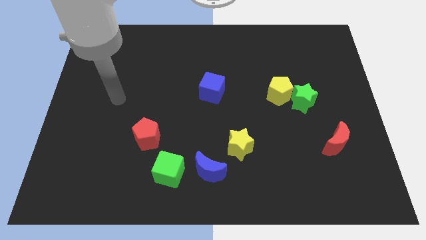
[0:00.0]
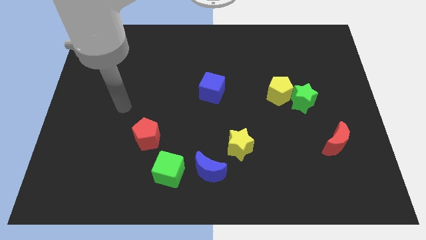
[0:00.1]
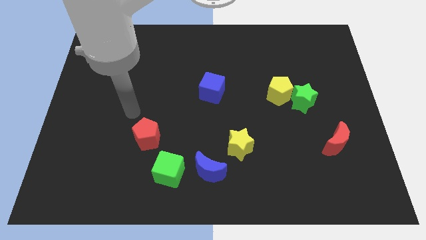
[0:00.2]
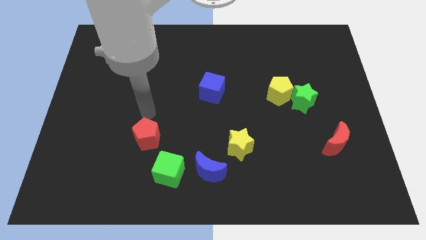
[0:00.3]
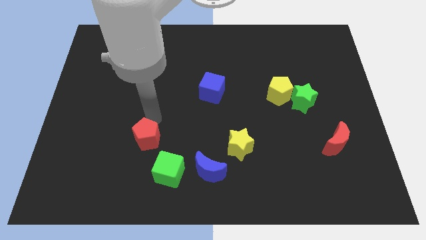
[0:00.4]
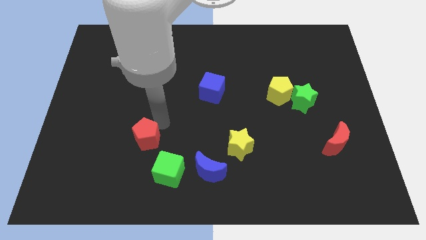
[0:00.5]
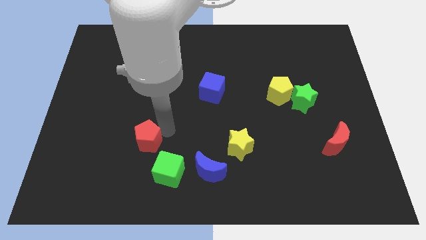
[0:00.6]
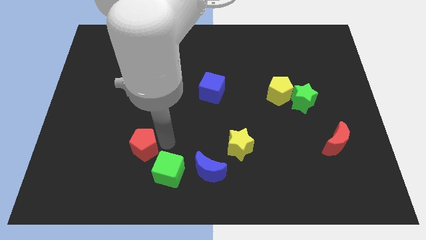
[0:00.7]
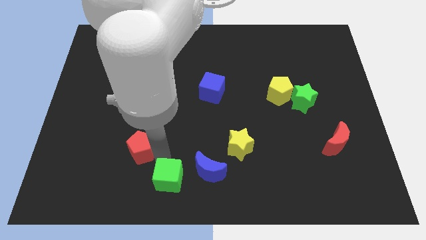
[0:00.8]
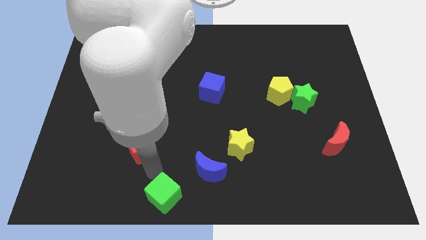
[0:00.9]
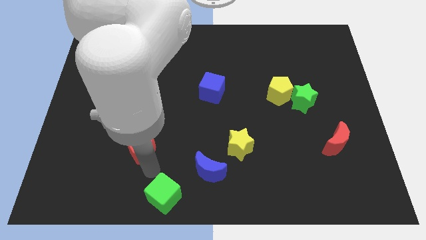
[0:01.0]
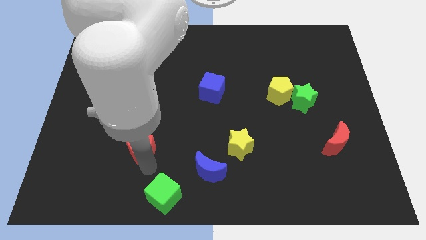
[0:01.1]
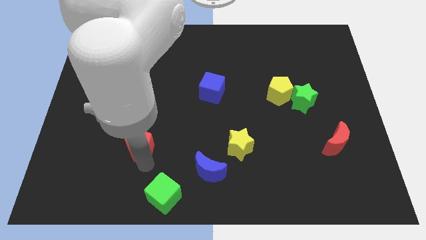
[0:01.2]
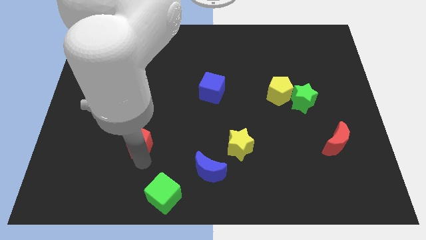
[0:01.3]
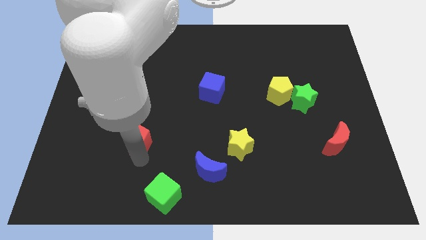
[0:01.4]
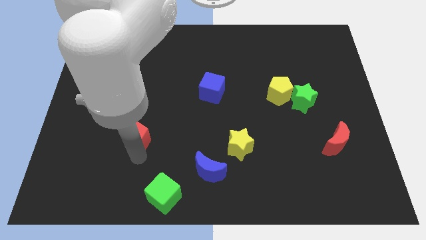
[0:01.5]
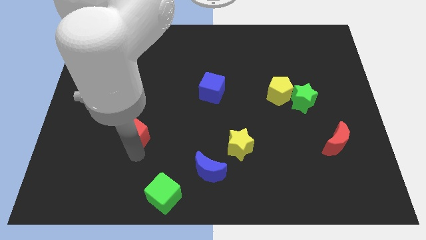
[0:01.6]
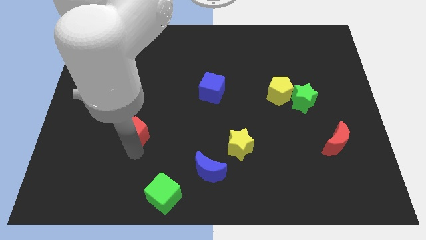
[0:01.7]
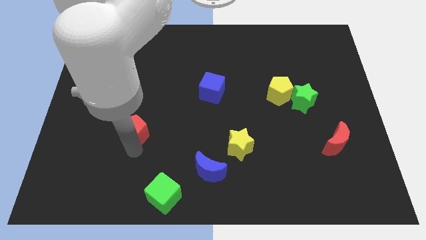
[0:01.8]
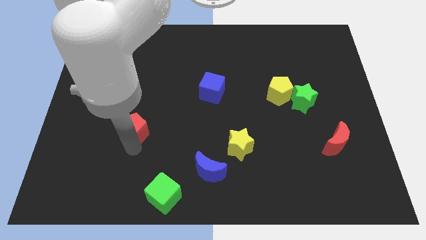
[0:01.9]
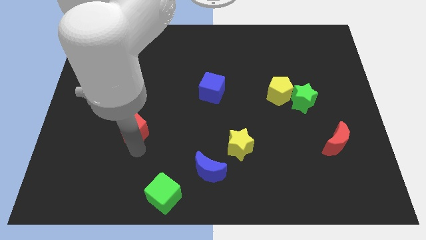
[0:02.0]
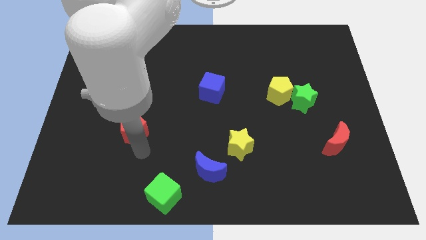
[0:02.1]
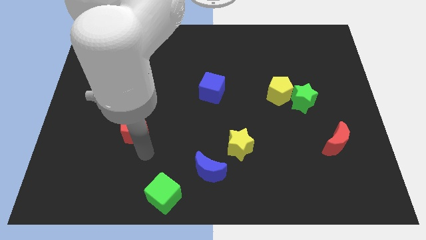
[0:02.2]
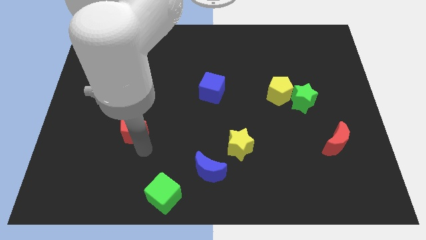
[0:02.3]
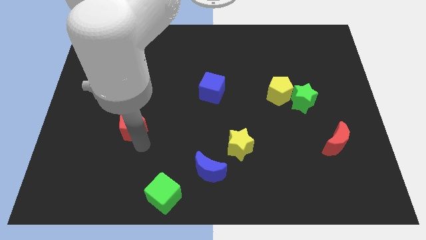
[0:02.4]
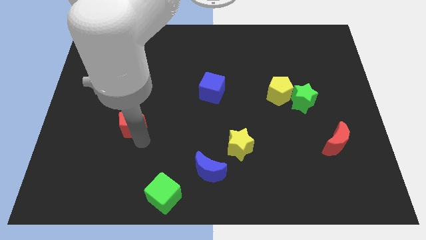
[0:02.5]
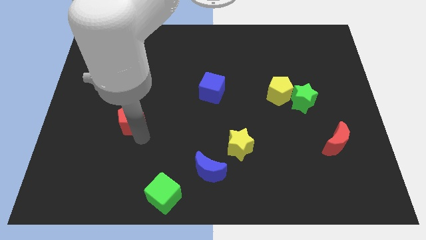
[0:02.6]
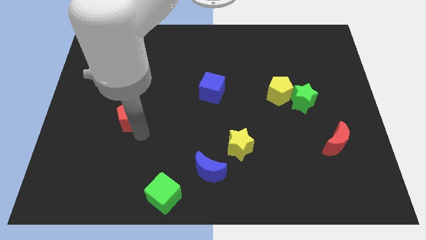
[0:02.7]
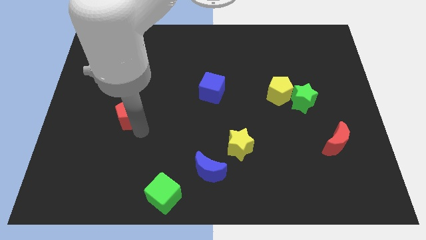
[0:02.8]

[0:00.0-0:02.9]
slide the red pentagon a little upwards and to the left

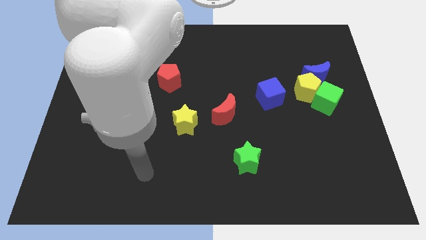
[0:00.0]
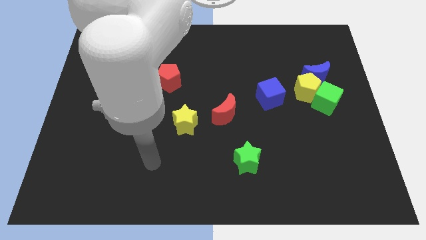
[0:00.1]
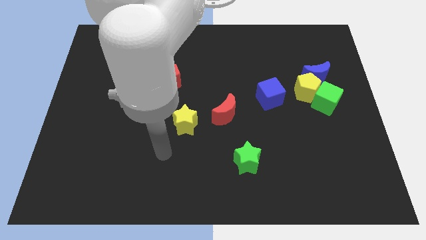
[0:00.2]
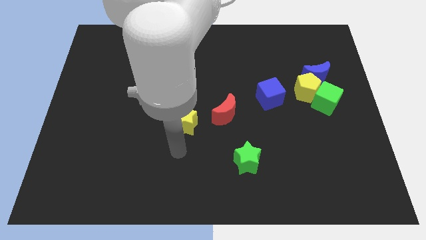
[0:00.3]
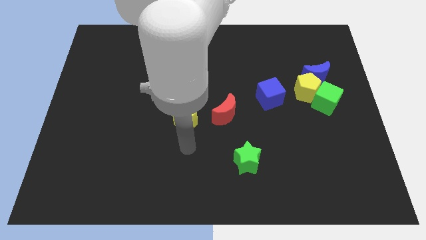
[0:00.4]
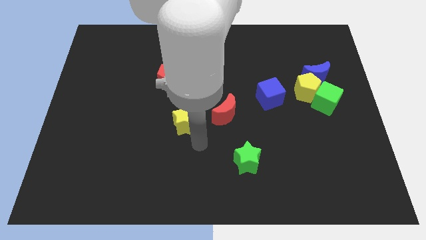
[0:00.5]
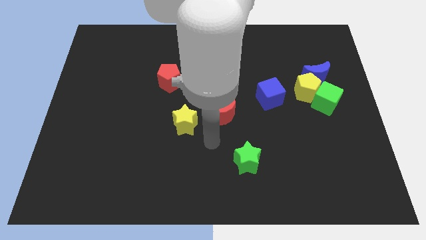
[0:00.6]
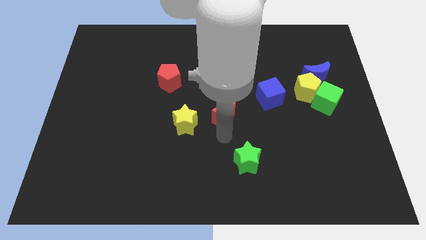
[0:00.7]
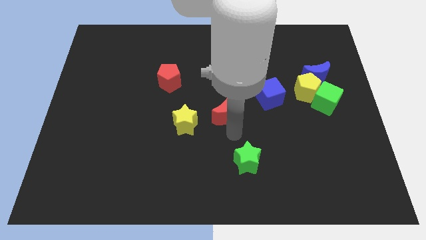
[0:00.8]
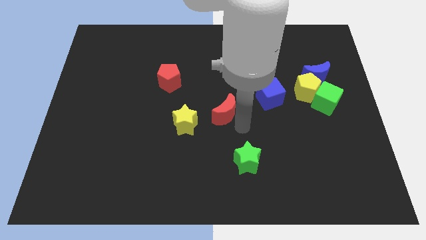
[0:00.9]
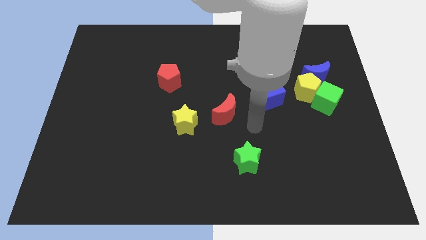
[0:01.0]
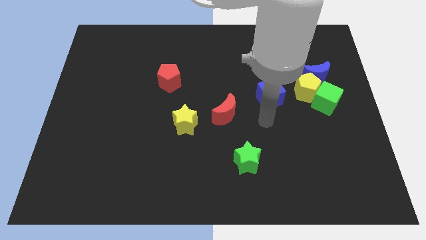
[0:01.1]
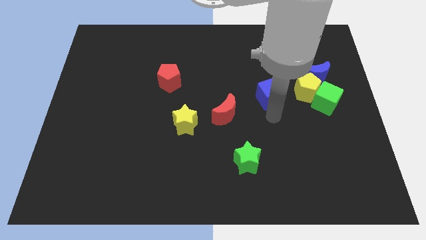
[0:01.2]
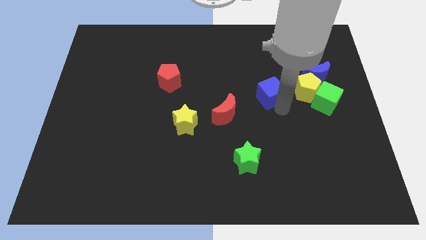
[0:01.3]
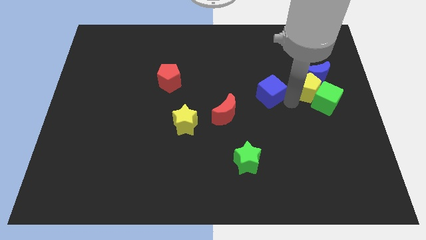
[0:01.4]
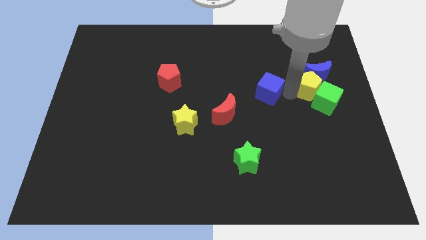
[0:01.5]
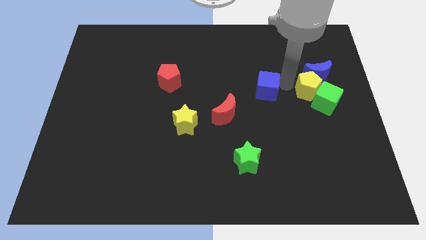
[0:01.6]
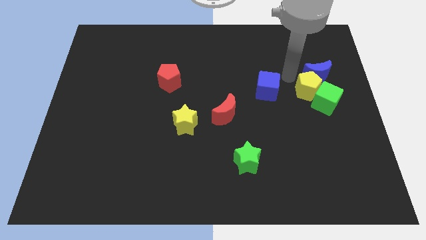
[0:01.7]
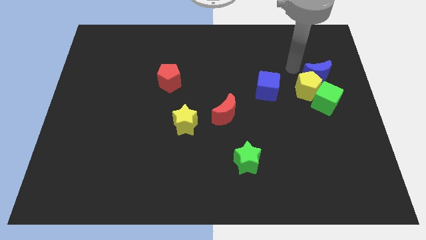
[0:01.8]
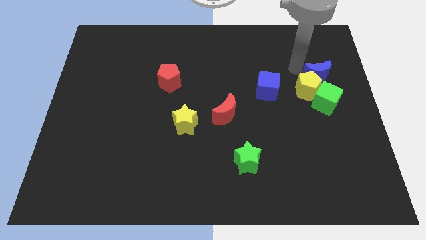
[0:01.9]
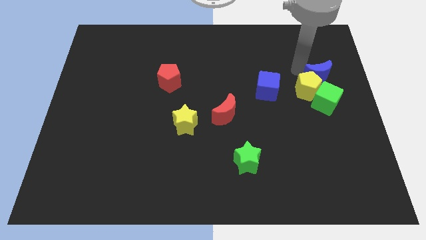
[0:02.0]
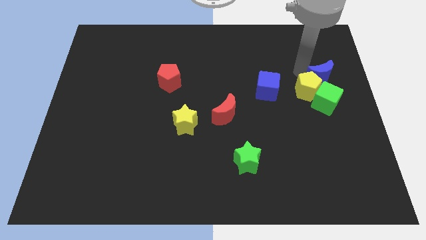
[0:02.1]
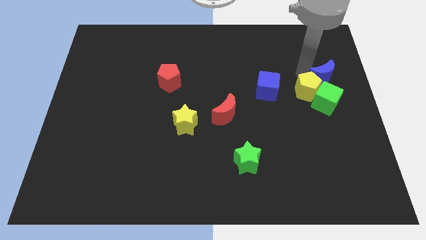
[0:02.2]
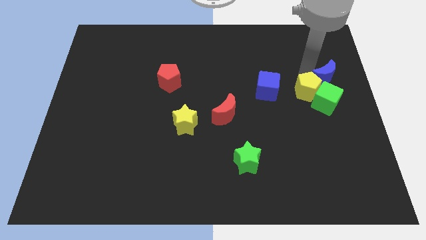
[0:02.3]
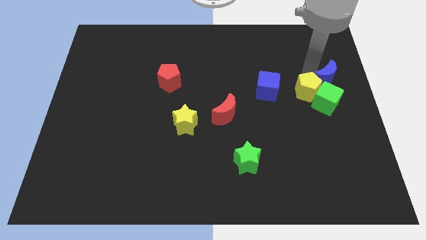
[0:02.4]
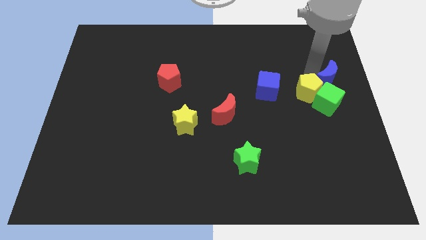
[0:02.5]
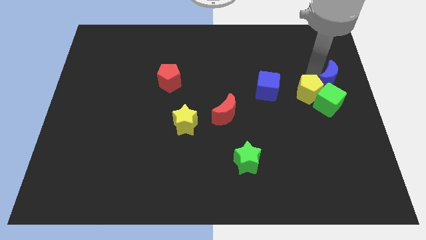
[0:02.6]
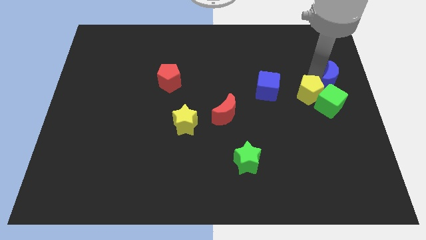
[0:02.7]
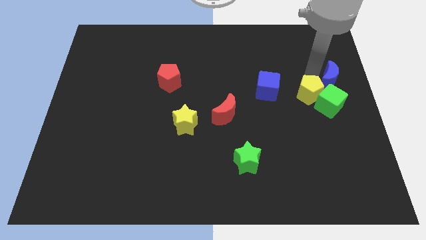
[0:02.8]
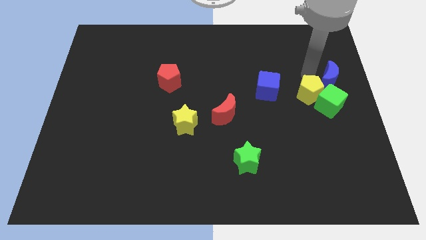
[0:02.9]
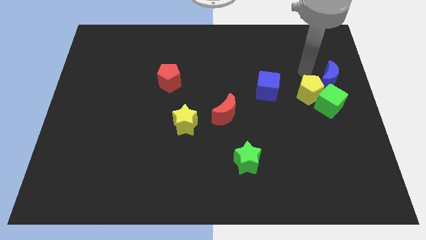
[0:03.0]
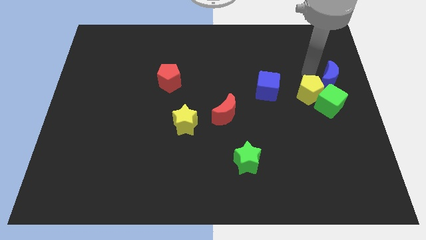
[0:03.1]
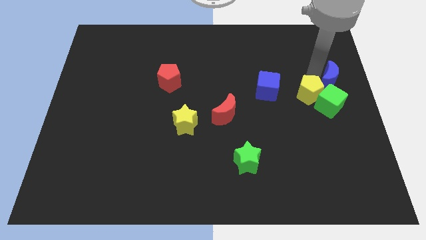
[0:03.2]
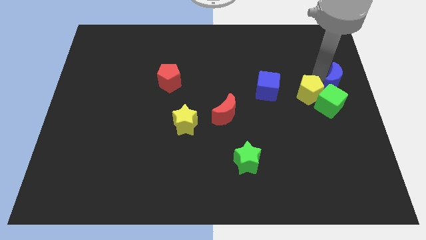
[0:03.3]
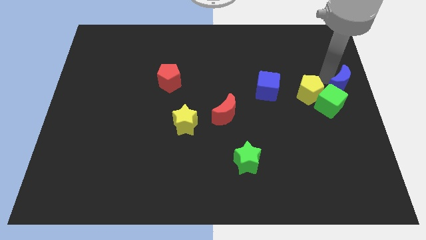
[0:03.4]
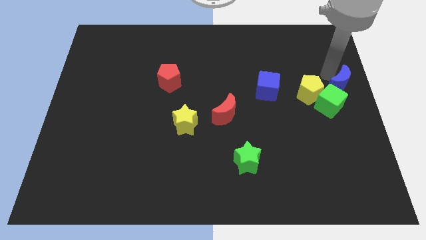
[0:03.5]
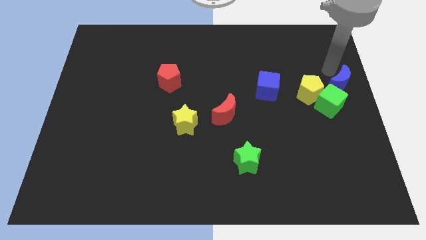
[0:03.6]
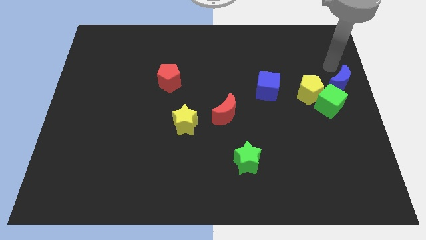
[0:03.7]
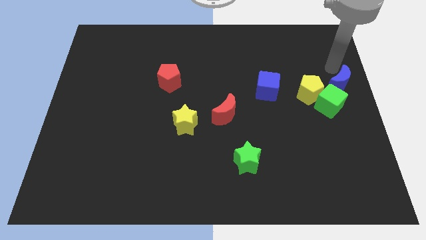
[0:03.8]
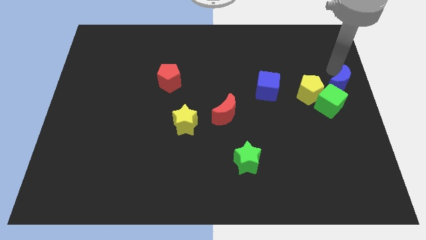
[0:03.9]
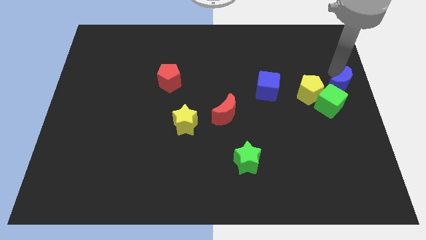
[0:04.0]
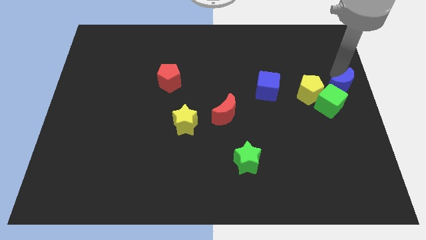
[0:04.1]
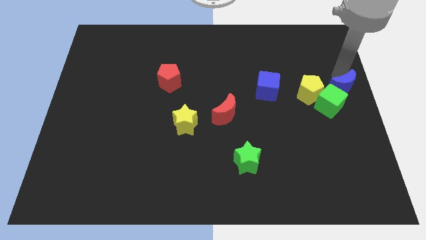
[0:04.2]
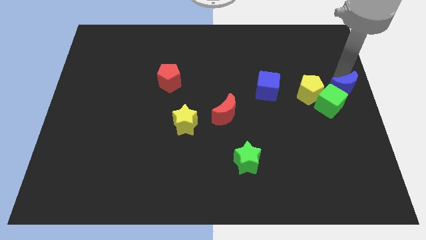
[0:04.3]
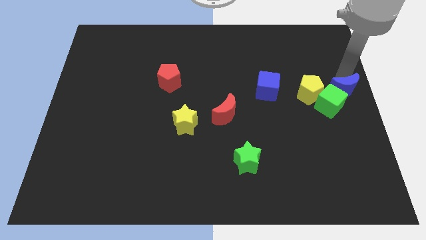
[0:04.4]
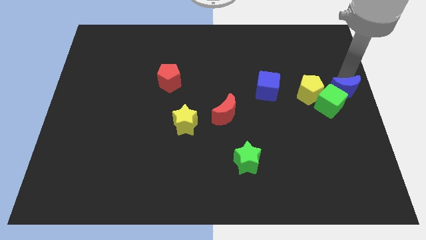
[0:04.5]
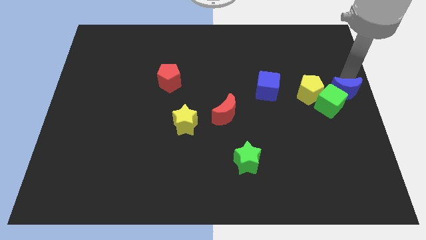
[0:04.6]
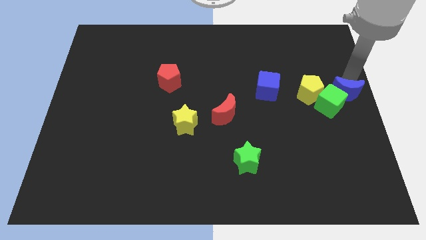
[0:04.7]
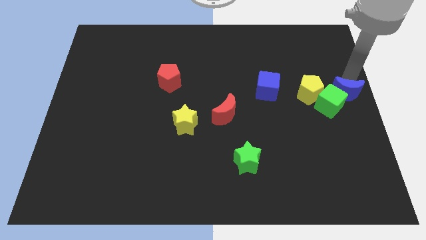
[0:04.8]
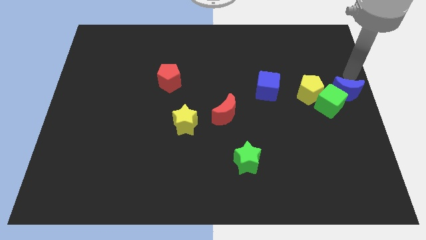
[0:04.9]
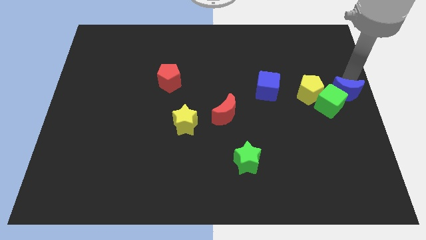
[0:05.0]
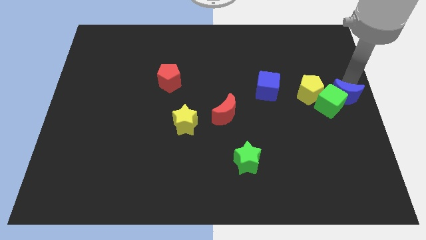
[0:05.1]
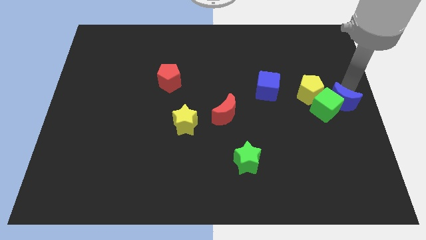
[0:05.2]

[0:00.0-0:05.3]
slightly push the blue moon downwards
